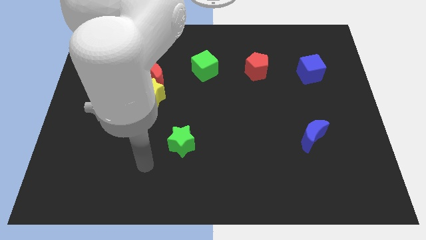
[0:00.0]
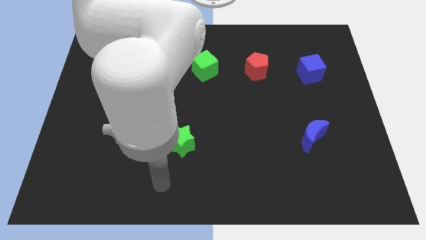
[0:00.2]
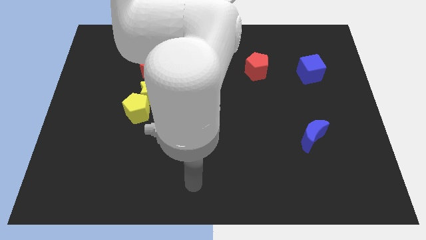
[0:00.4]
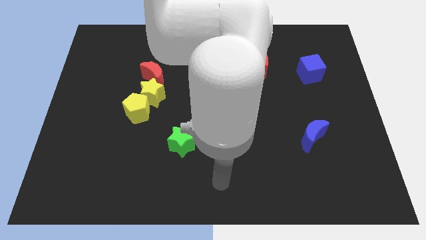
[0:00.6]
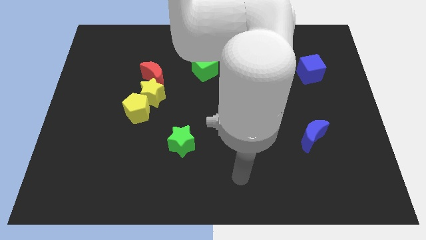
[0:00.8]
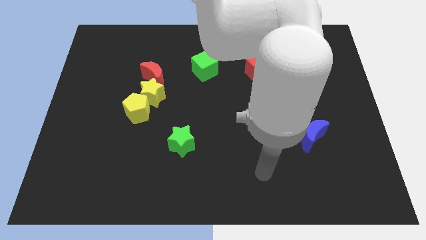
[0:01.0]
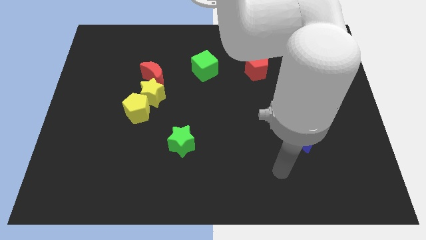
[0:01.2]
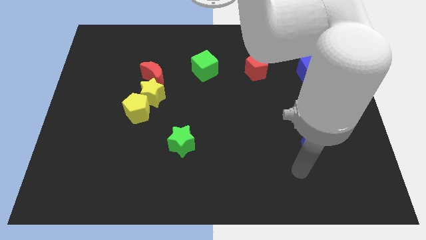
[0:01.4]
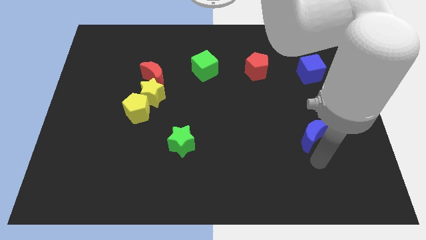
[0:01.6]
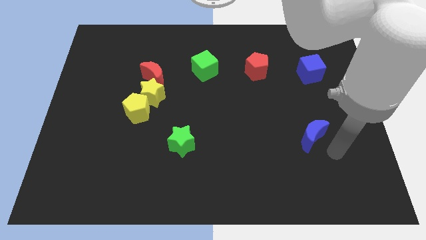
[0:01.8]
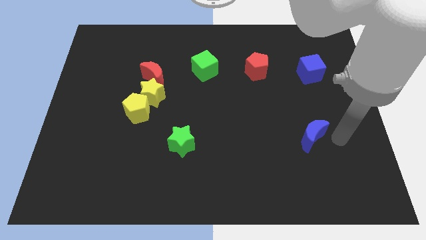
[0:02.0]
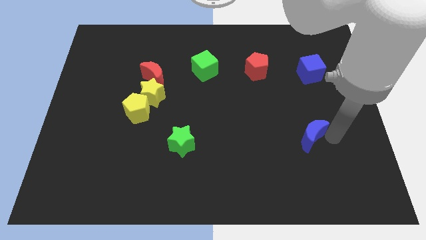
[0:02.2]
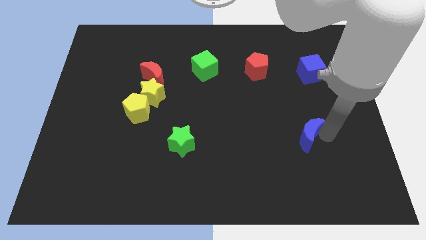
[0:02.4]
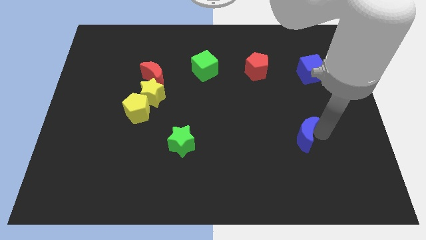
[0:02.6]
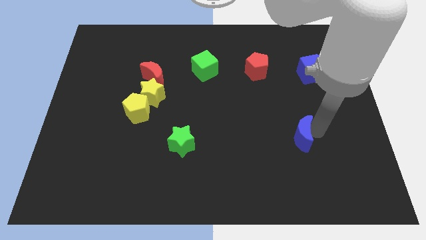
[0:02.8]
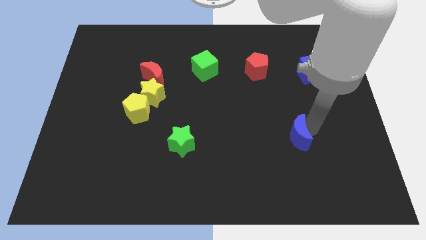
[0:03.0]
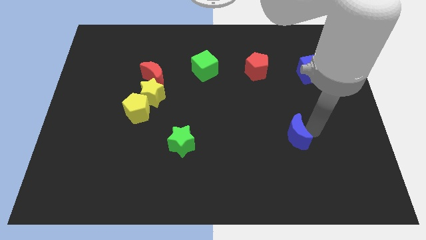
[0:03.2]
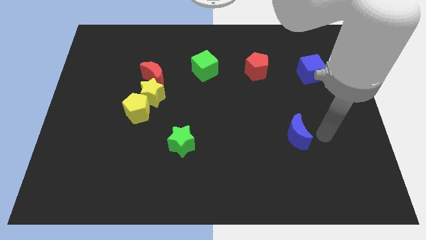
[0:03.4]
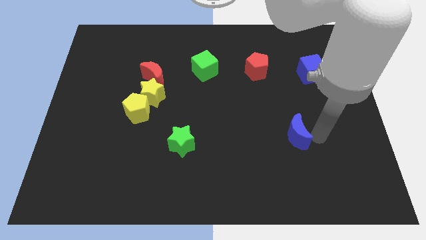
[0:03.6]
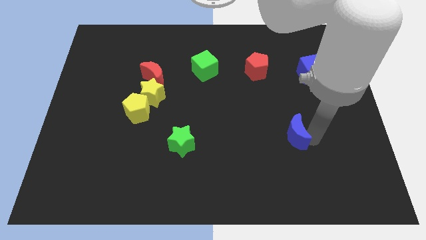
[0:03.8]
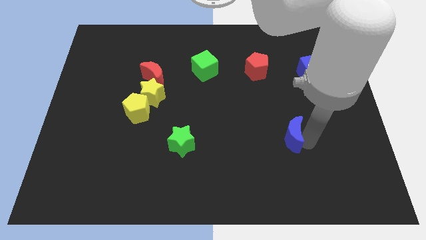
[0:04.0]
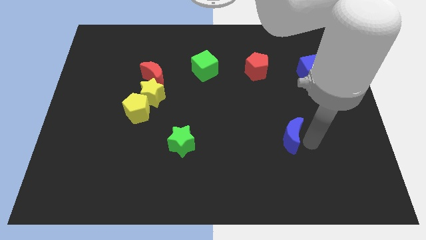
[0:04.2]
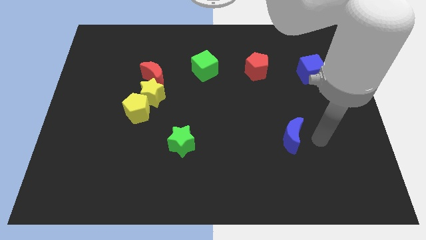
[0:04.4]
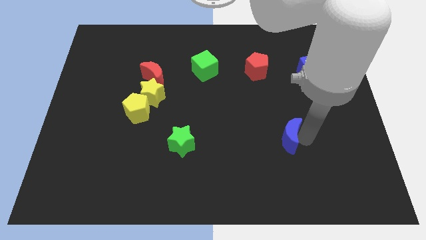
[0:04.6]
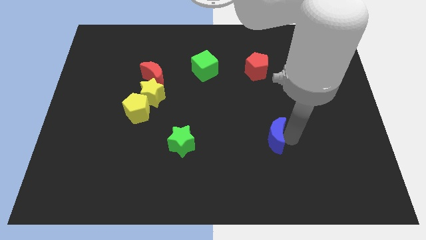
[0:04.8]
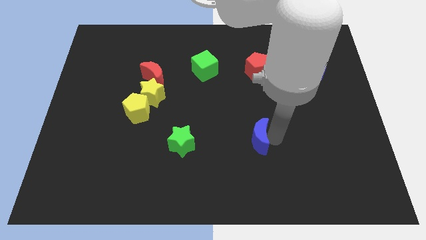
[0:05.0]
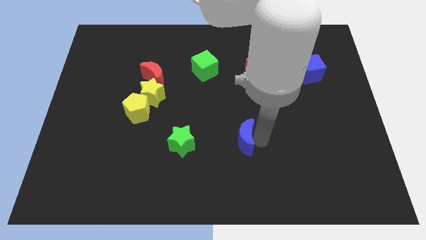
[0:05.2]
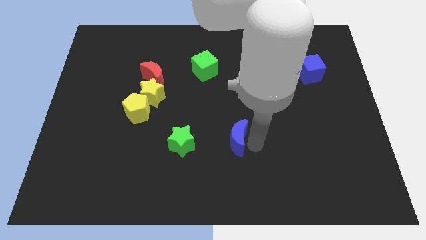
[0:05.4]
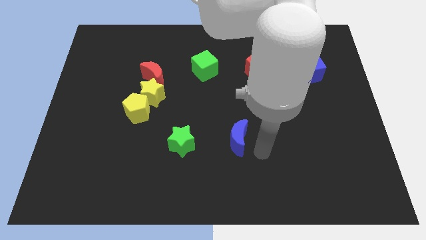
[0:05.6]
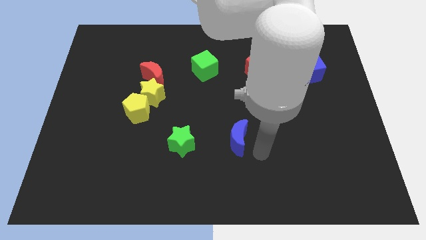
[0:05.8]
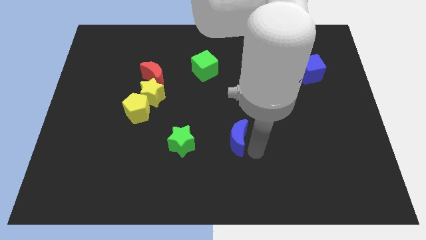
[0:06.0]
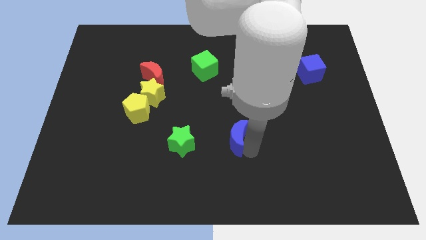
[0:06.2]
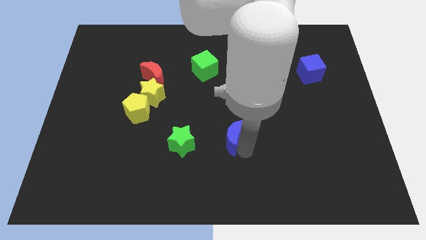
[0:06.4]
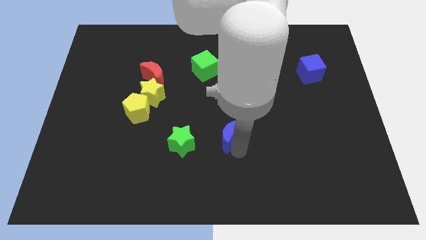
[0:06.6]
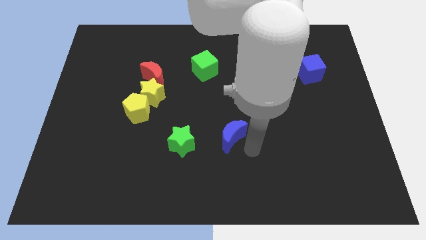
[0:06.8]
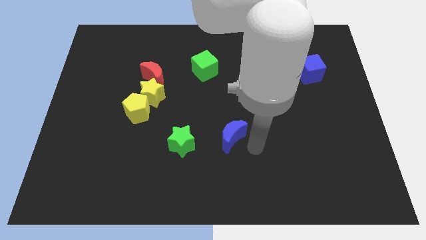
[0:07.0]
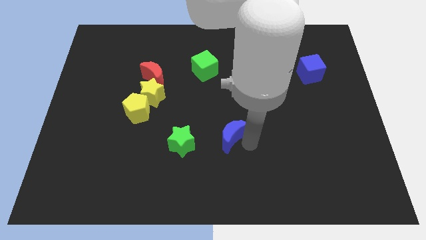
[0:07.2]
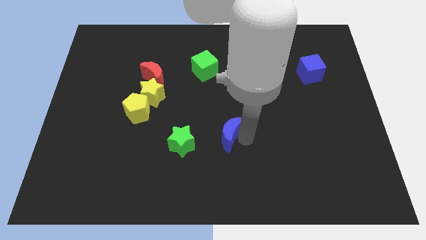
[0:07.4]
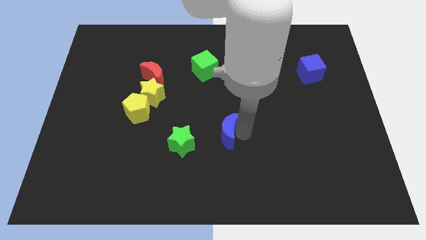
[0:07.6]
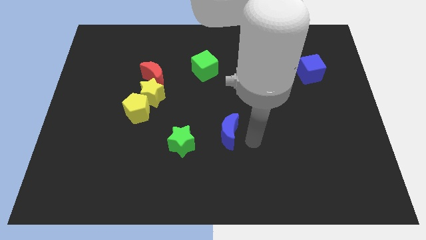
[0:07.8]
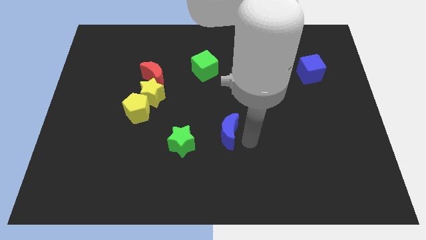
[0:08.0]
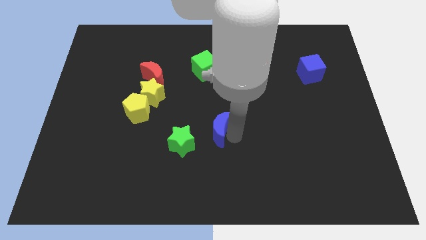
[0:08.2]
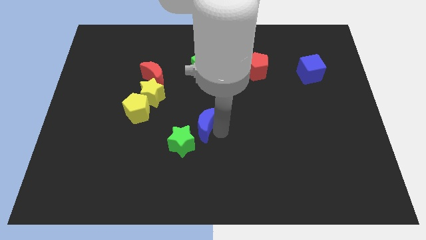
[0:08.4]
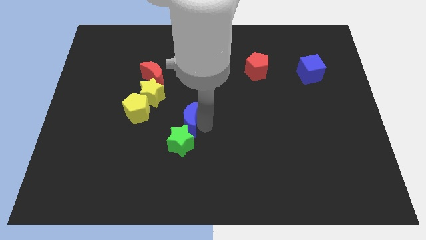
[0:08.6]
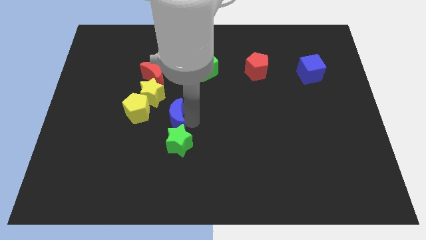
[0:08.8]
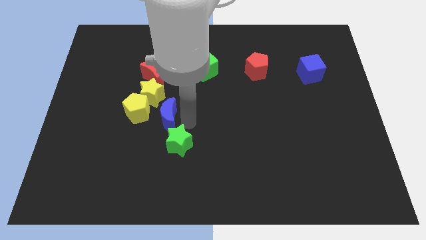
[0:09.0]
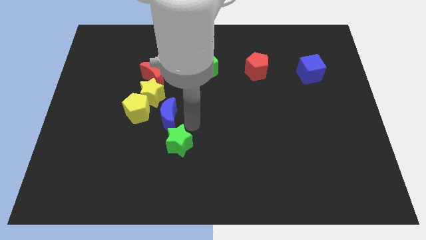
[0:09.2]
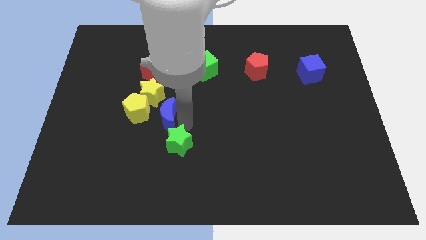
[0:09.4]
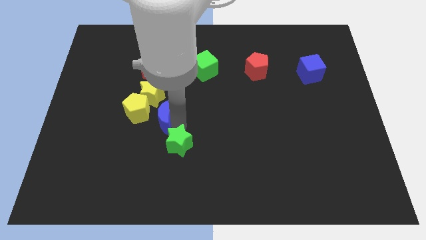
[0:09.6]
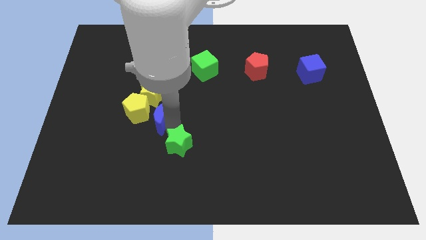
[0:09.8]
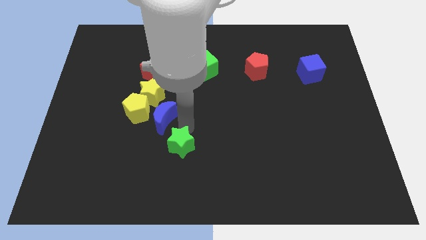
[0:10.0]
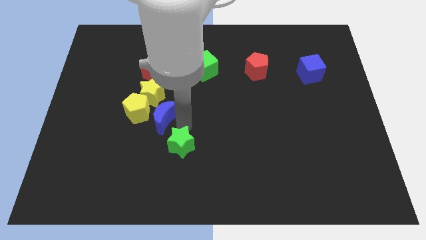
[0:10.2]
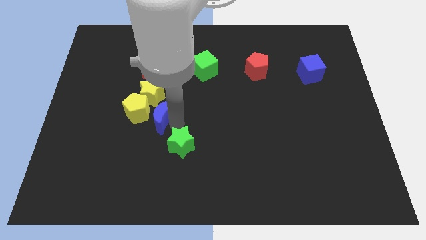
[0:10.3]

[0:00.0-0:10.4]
move the blue moon next to the yellow pentagon

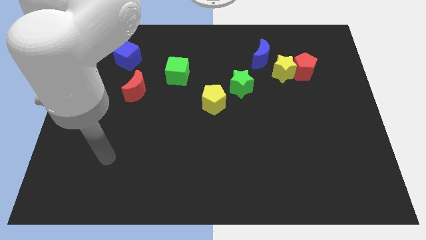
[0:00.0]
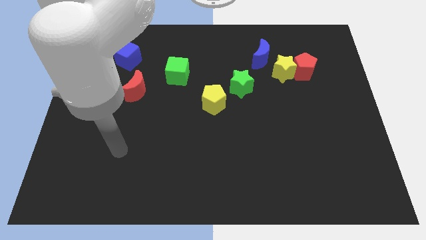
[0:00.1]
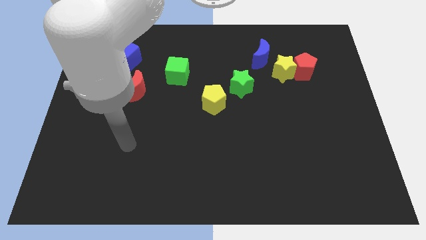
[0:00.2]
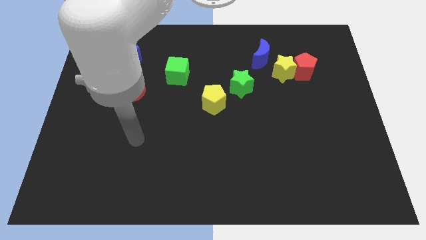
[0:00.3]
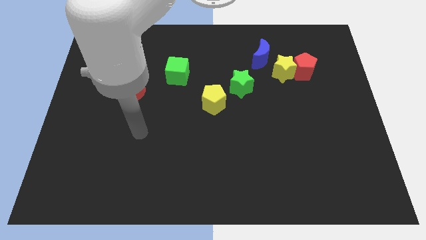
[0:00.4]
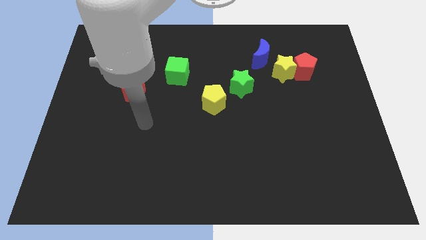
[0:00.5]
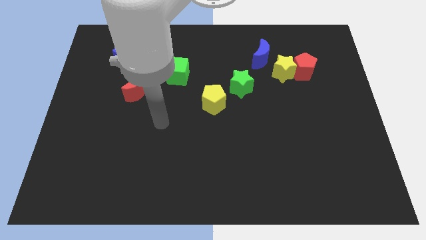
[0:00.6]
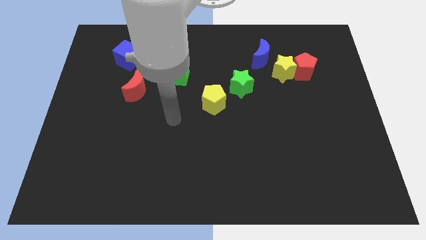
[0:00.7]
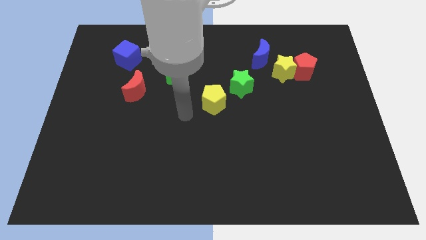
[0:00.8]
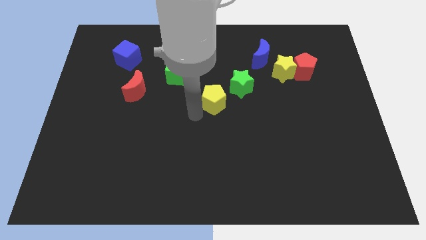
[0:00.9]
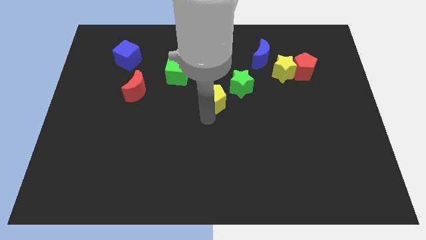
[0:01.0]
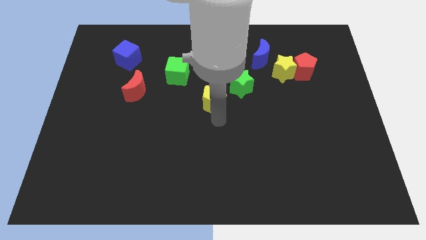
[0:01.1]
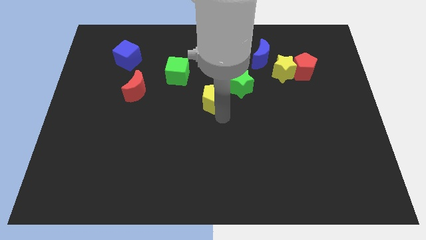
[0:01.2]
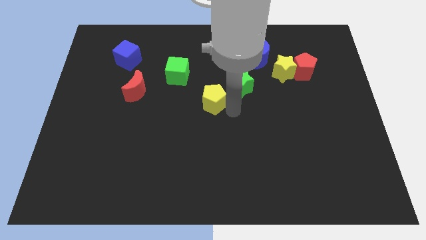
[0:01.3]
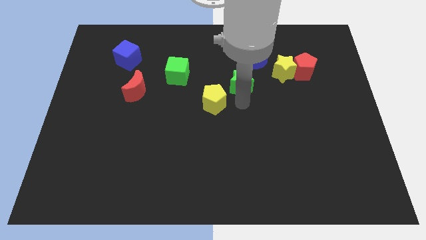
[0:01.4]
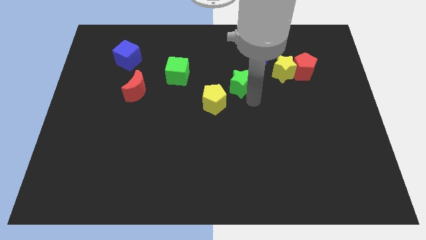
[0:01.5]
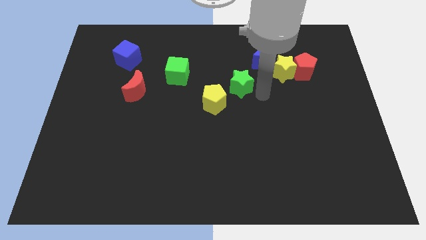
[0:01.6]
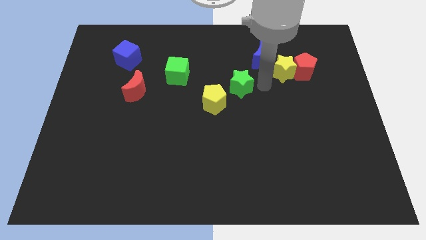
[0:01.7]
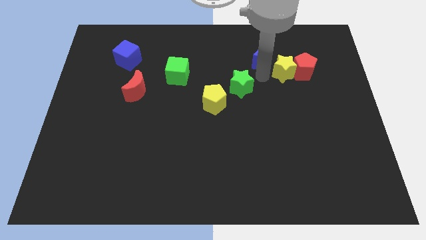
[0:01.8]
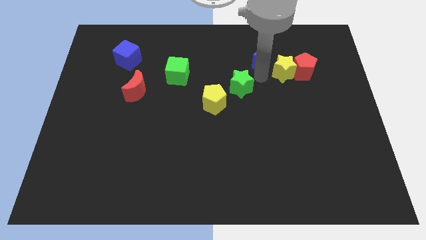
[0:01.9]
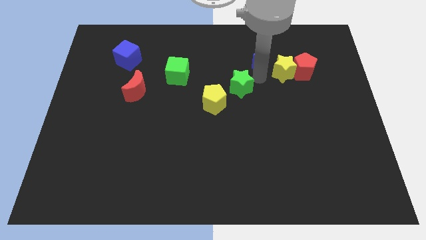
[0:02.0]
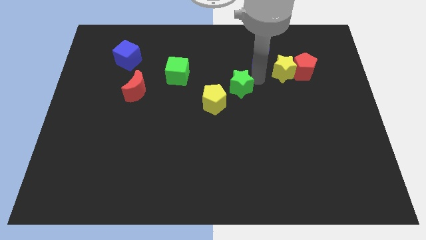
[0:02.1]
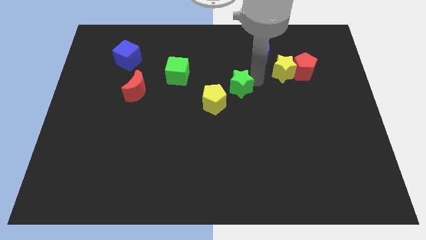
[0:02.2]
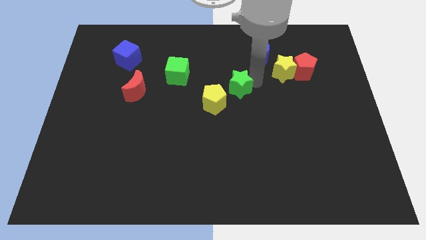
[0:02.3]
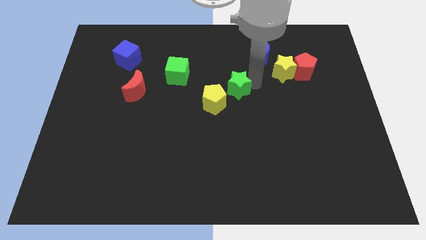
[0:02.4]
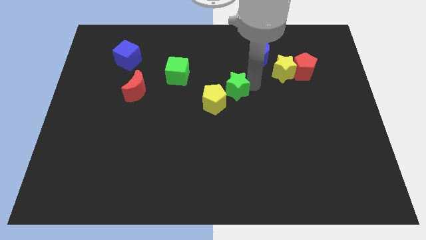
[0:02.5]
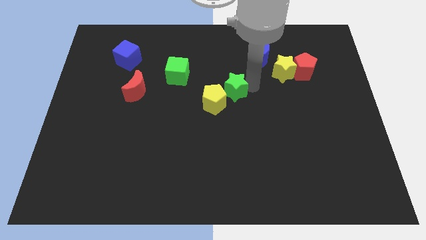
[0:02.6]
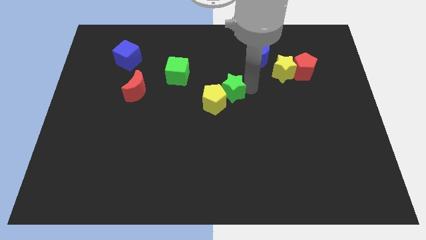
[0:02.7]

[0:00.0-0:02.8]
put the green star close to the yellow pentagon
